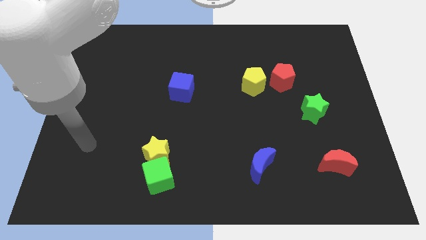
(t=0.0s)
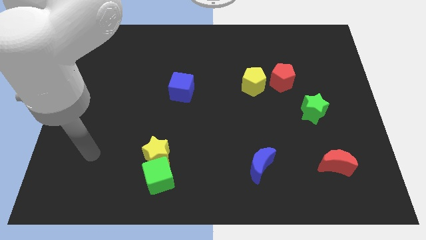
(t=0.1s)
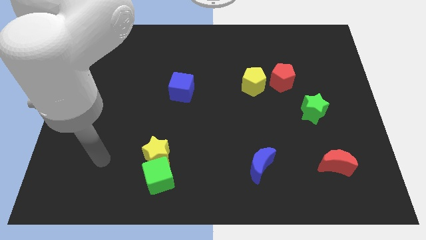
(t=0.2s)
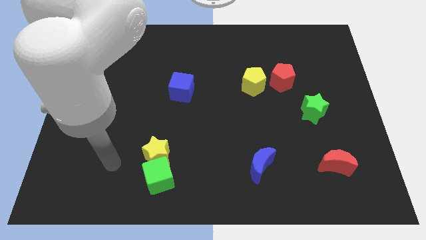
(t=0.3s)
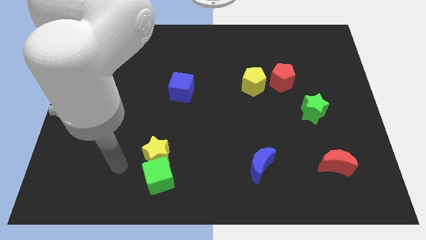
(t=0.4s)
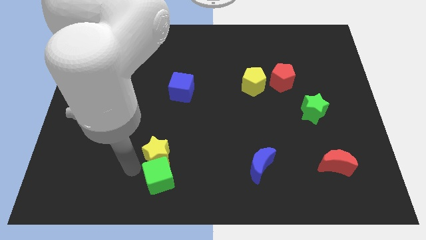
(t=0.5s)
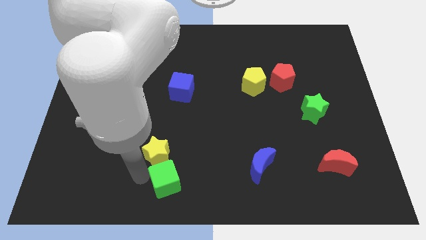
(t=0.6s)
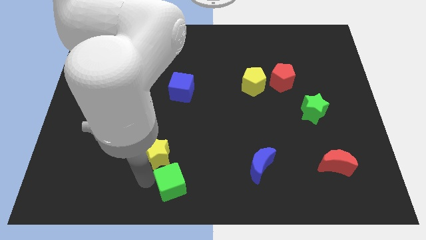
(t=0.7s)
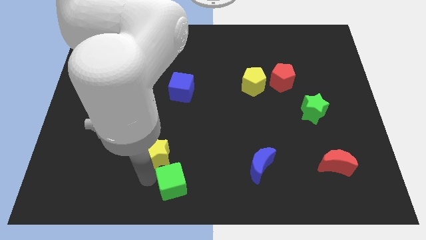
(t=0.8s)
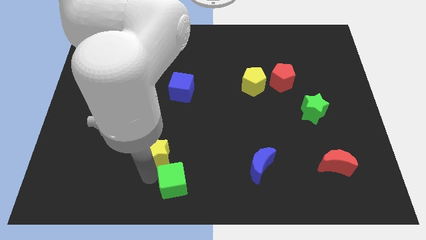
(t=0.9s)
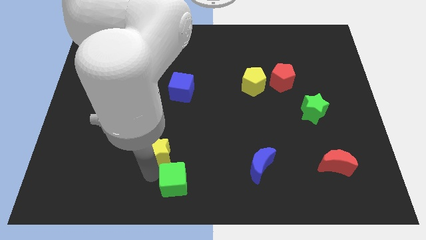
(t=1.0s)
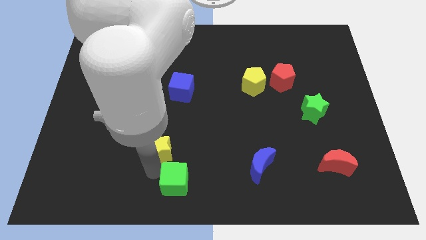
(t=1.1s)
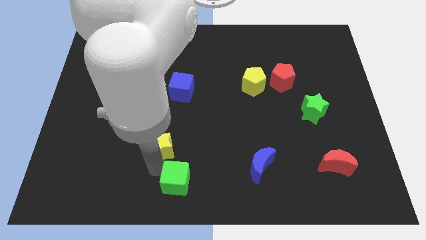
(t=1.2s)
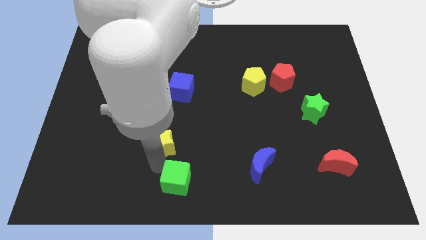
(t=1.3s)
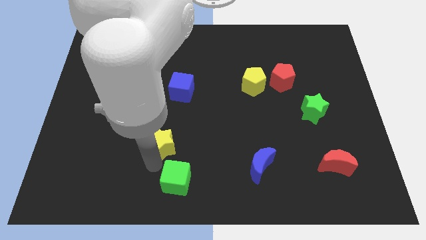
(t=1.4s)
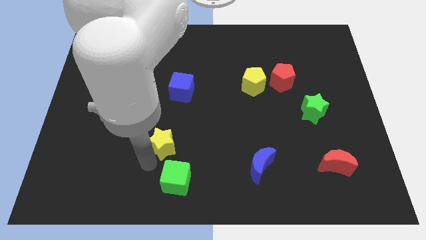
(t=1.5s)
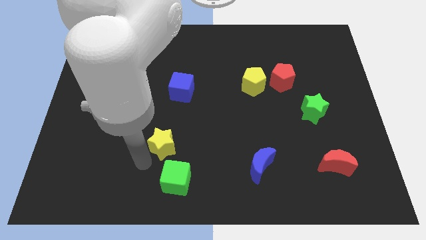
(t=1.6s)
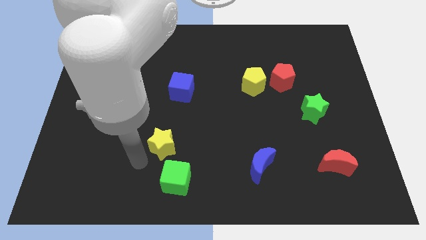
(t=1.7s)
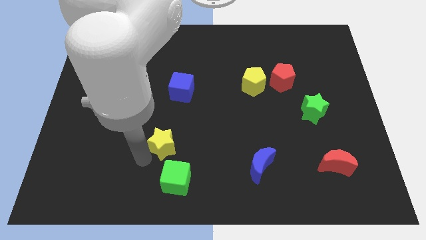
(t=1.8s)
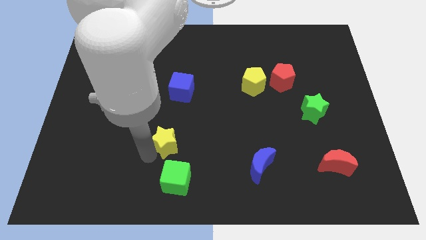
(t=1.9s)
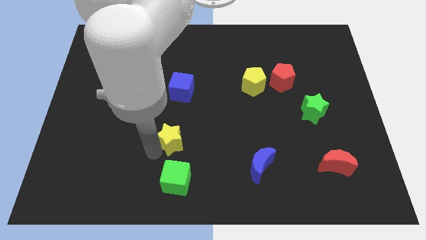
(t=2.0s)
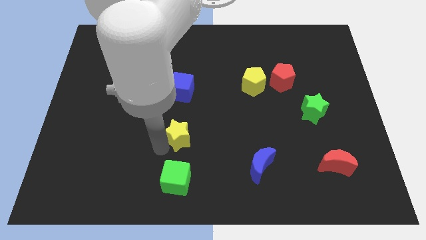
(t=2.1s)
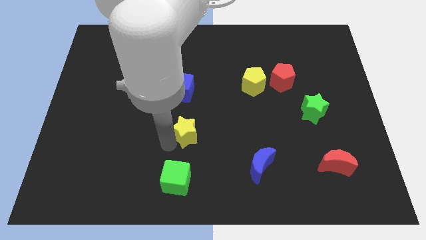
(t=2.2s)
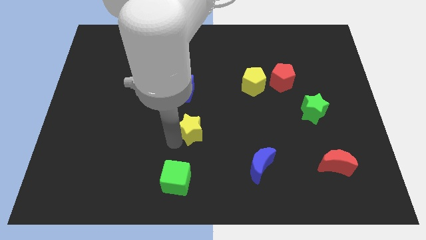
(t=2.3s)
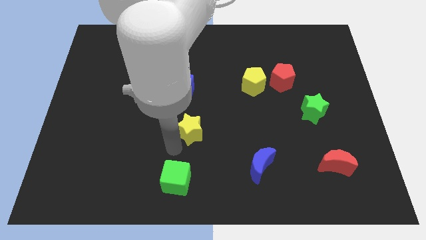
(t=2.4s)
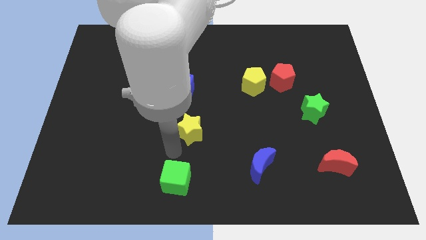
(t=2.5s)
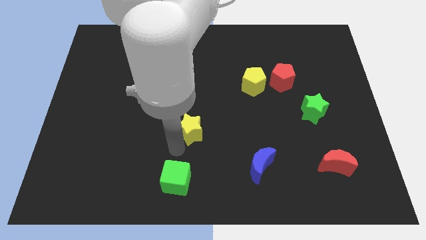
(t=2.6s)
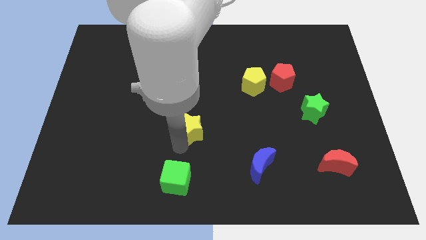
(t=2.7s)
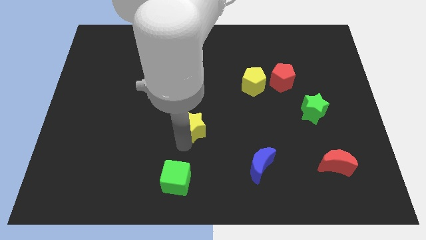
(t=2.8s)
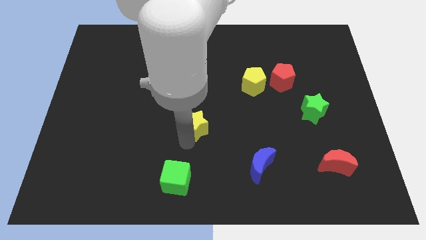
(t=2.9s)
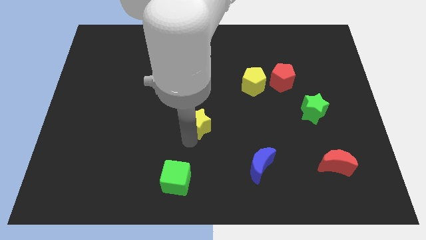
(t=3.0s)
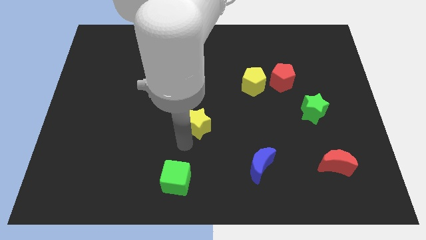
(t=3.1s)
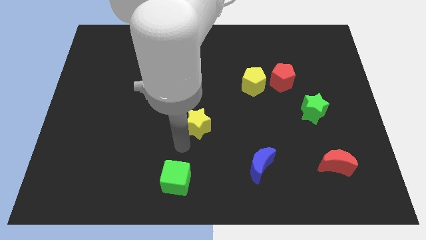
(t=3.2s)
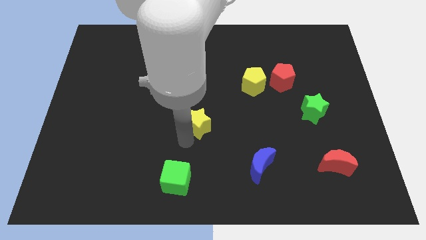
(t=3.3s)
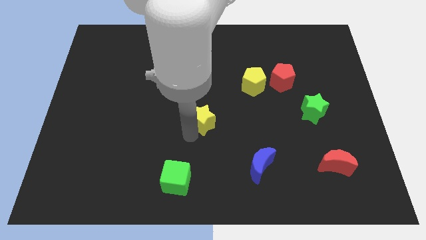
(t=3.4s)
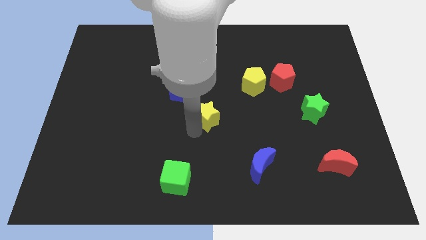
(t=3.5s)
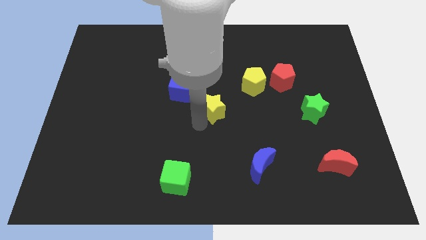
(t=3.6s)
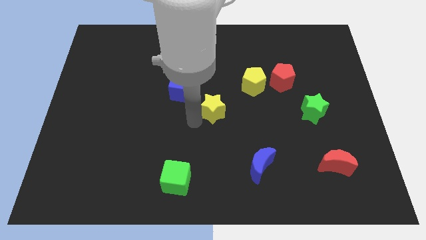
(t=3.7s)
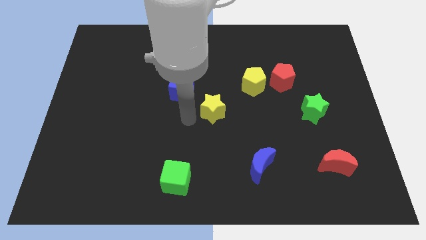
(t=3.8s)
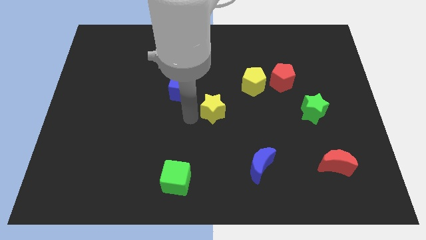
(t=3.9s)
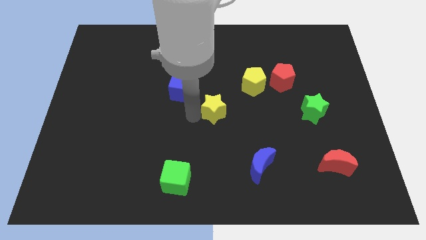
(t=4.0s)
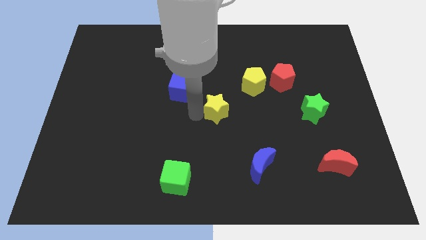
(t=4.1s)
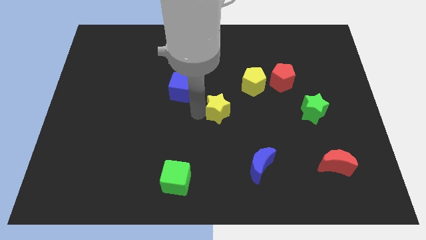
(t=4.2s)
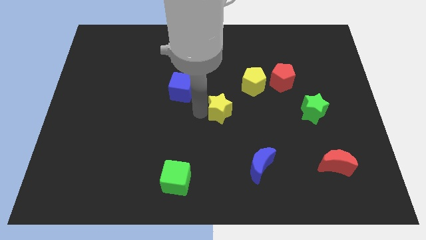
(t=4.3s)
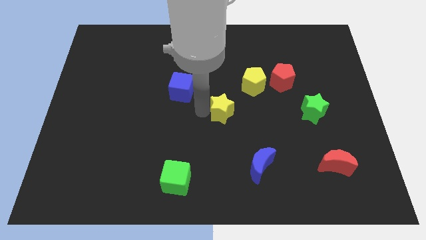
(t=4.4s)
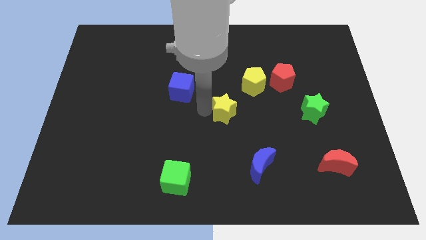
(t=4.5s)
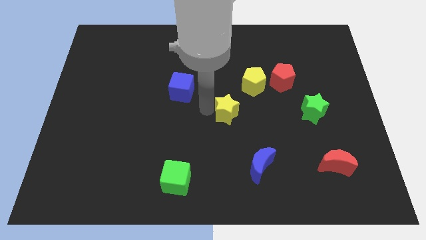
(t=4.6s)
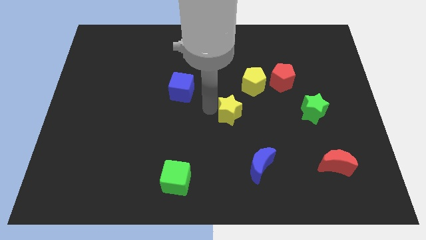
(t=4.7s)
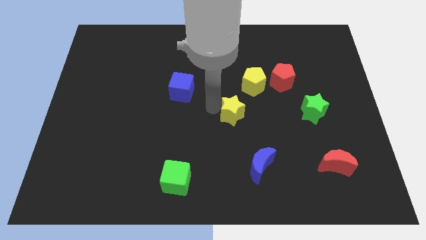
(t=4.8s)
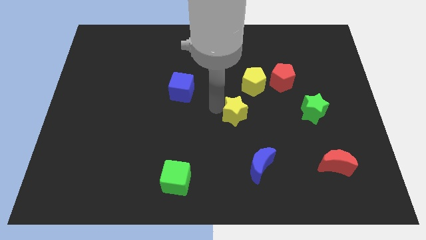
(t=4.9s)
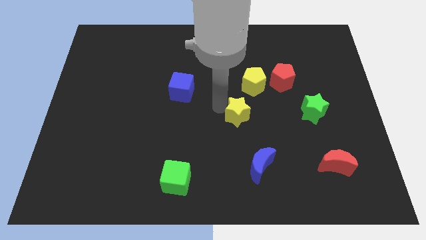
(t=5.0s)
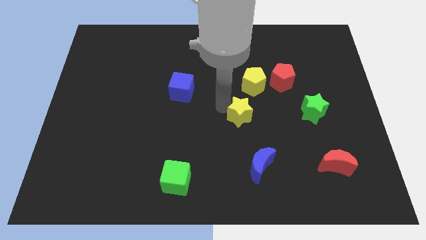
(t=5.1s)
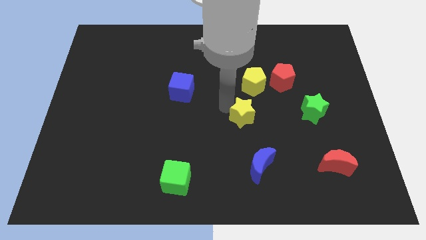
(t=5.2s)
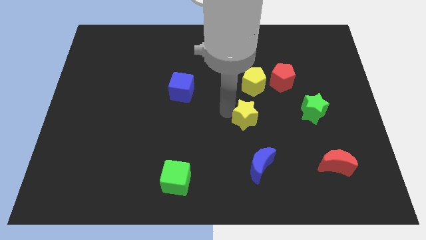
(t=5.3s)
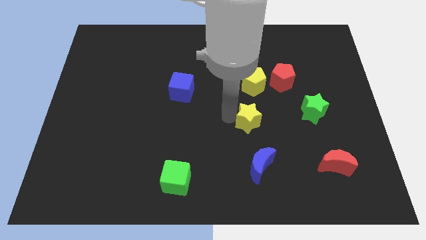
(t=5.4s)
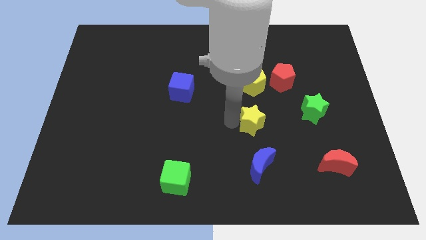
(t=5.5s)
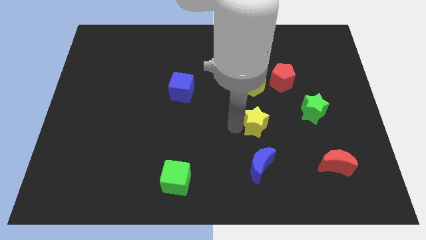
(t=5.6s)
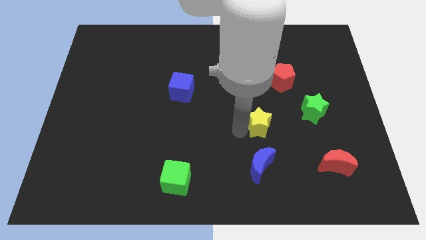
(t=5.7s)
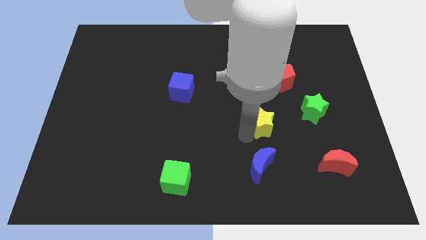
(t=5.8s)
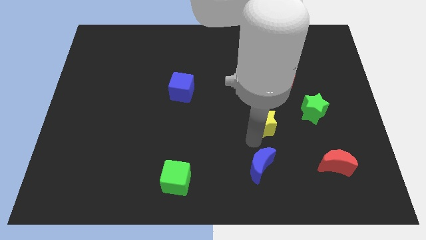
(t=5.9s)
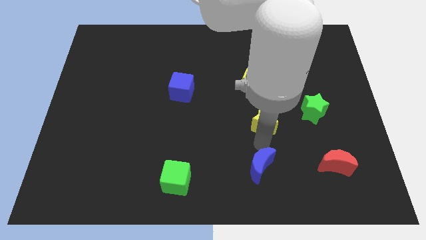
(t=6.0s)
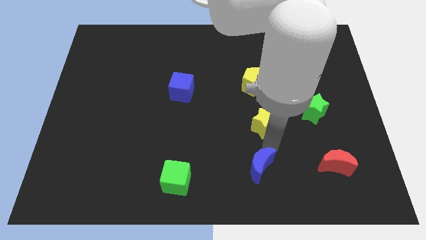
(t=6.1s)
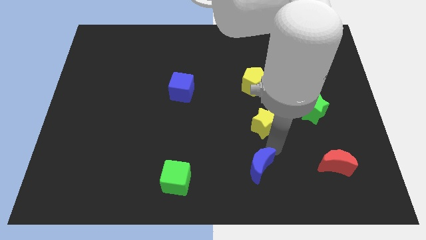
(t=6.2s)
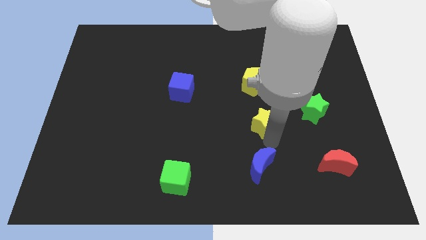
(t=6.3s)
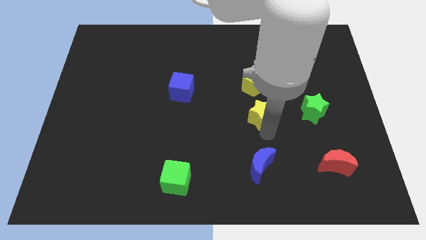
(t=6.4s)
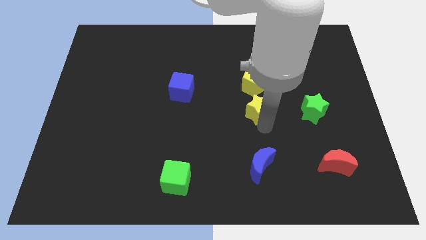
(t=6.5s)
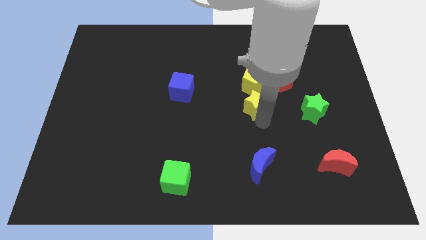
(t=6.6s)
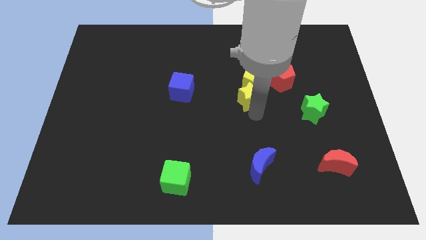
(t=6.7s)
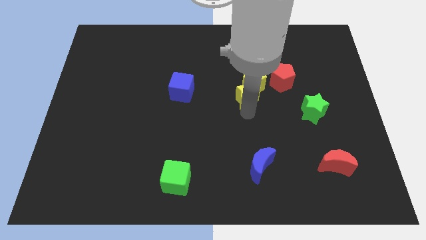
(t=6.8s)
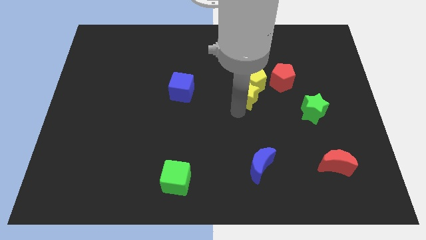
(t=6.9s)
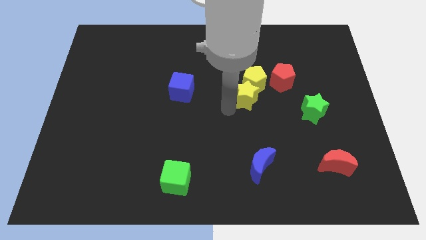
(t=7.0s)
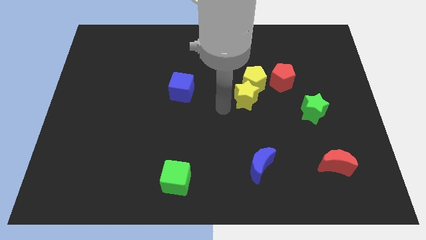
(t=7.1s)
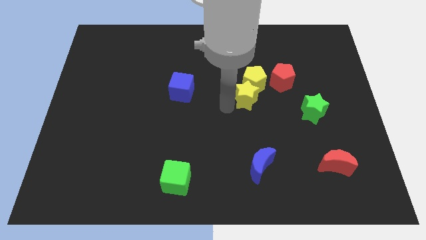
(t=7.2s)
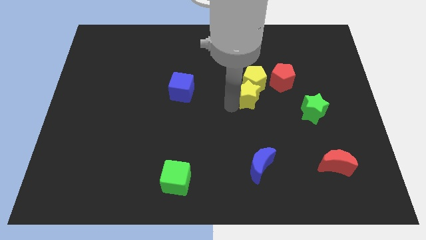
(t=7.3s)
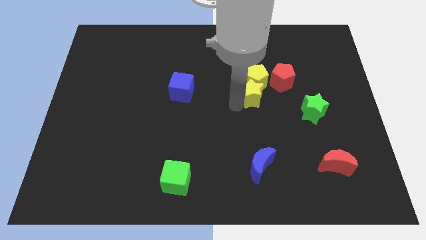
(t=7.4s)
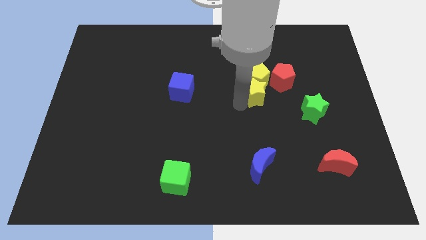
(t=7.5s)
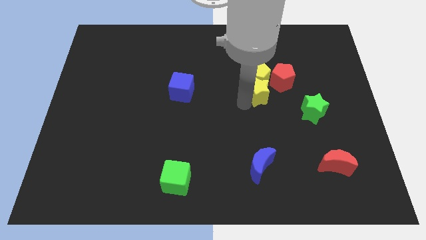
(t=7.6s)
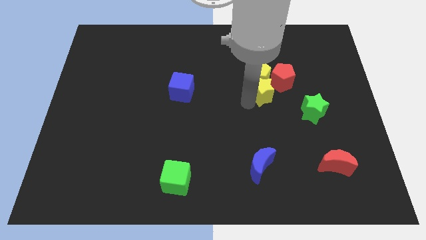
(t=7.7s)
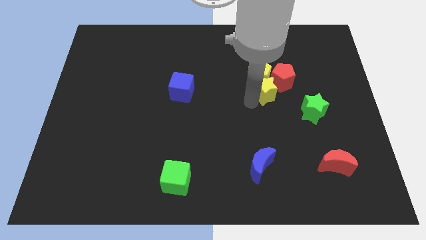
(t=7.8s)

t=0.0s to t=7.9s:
push the yellow star next to the red pentagon
